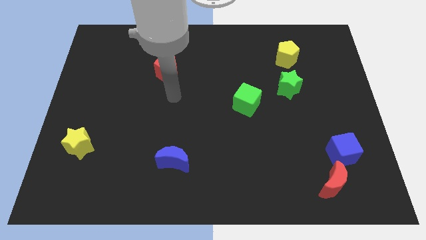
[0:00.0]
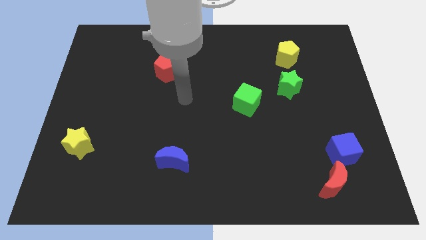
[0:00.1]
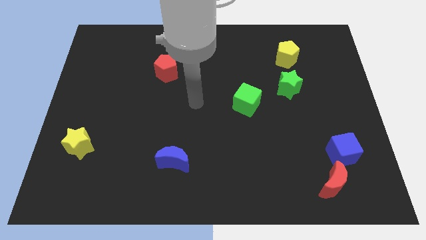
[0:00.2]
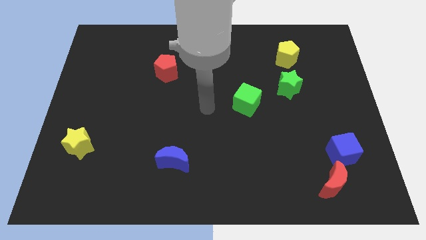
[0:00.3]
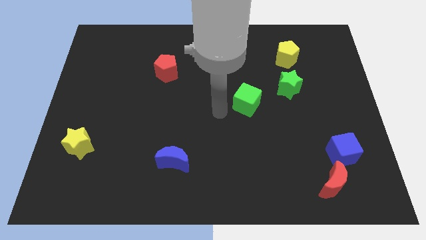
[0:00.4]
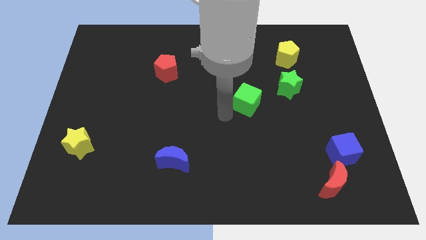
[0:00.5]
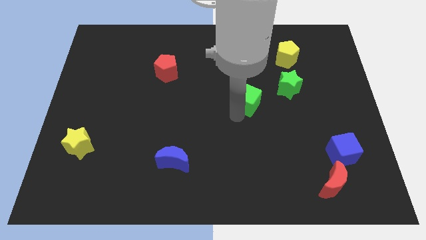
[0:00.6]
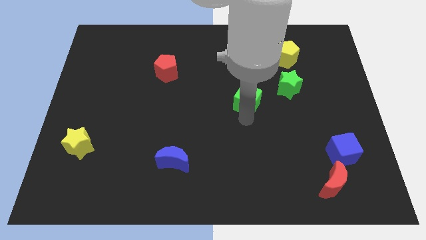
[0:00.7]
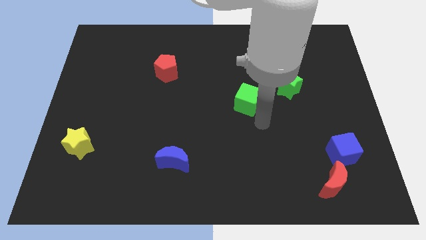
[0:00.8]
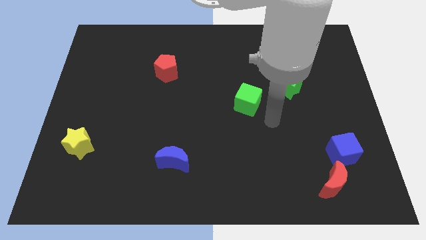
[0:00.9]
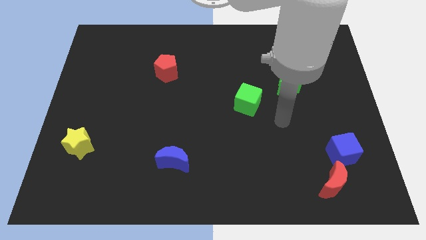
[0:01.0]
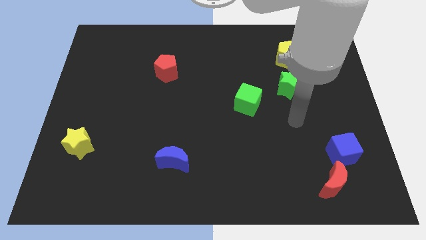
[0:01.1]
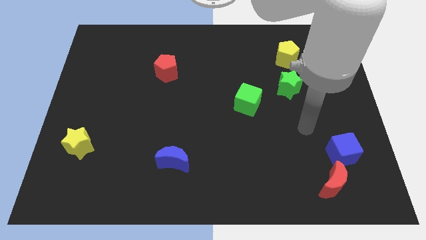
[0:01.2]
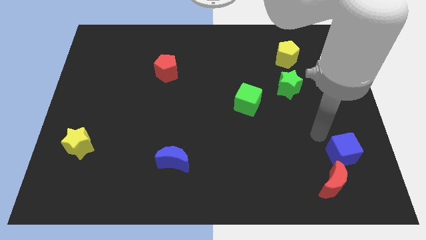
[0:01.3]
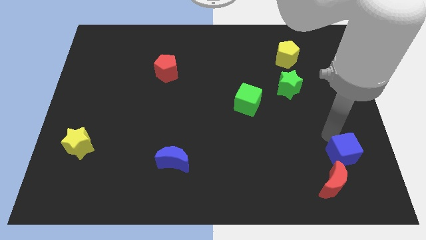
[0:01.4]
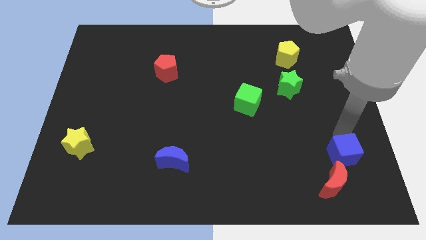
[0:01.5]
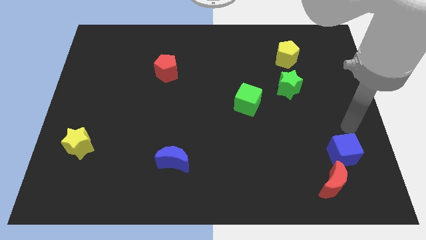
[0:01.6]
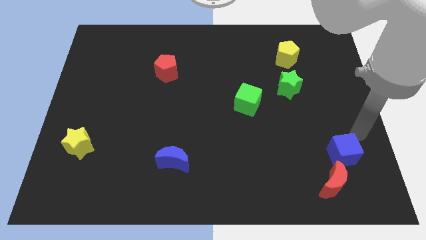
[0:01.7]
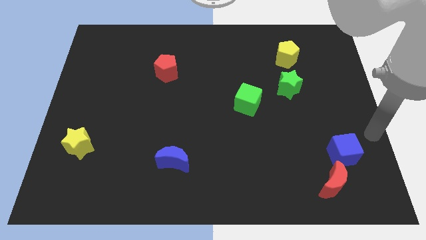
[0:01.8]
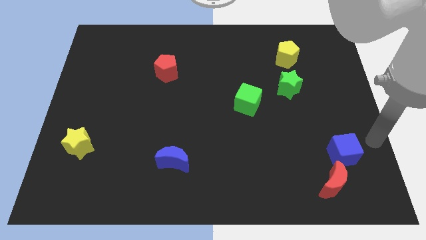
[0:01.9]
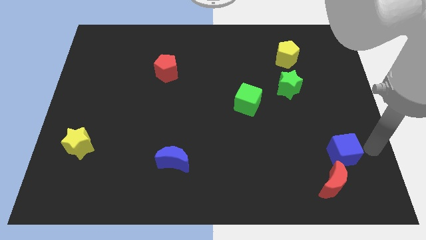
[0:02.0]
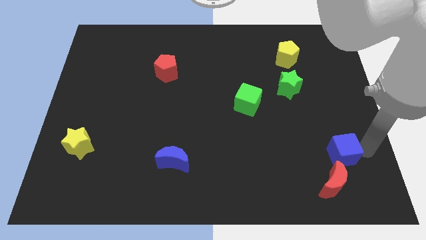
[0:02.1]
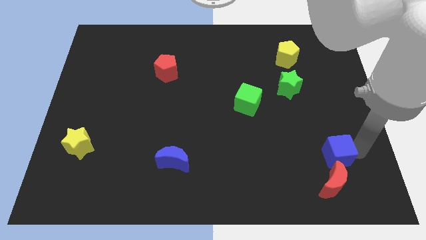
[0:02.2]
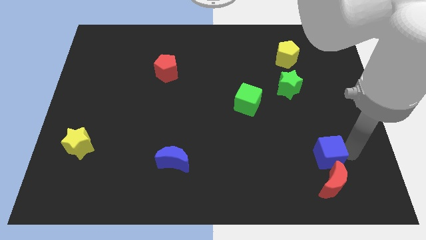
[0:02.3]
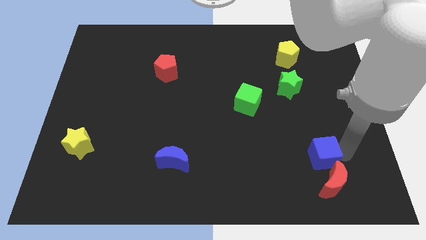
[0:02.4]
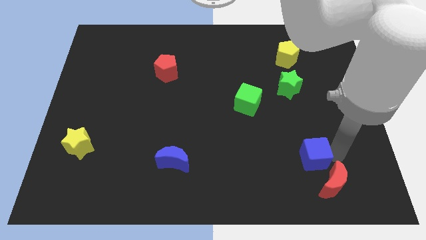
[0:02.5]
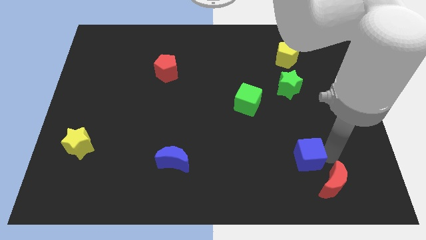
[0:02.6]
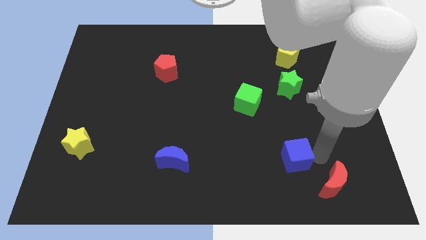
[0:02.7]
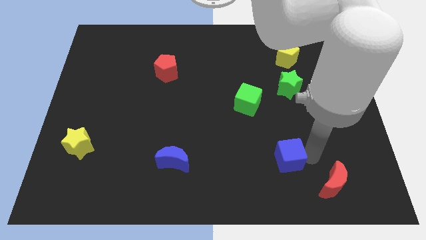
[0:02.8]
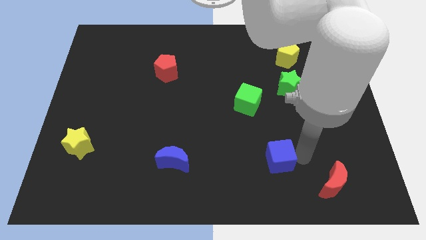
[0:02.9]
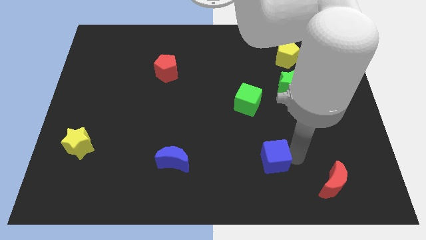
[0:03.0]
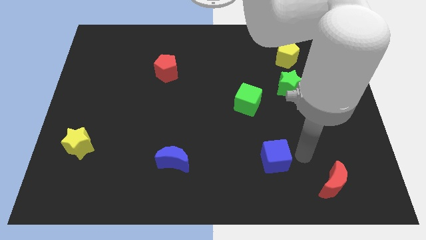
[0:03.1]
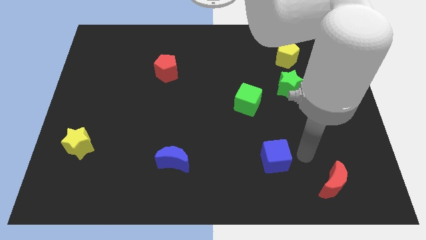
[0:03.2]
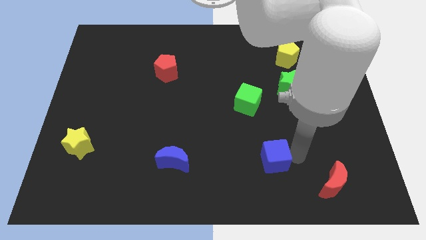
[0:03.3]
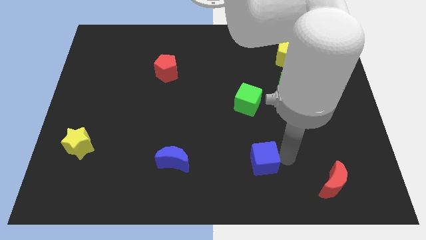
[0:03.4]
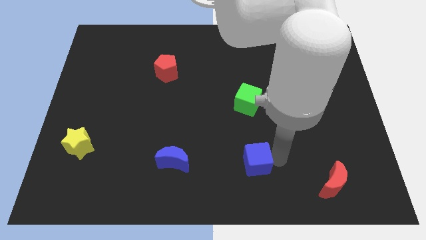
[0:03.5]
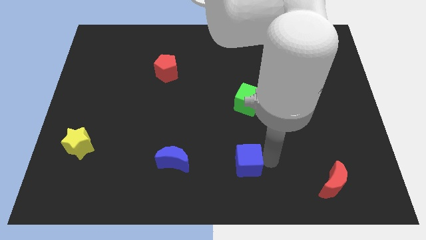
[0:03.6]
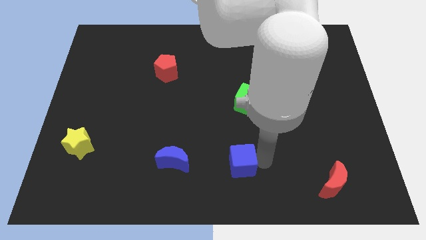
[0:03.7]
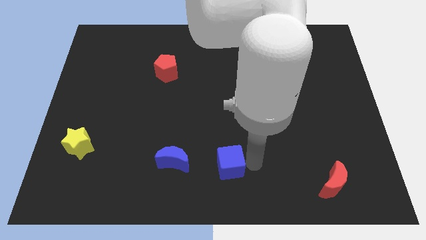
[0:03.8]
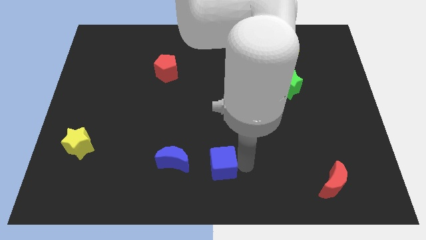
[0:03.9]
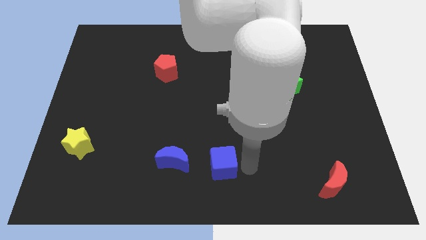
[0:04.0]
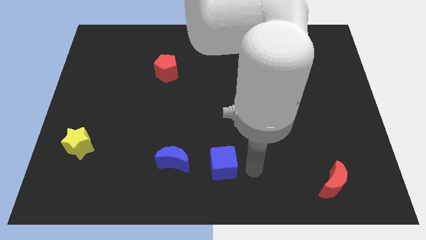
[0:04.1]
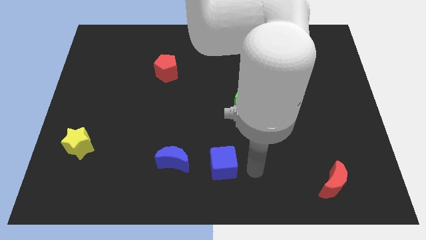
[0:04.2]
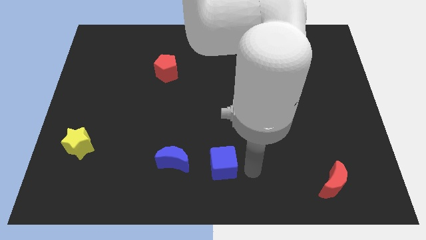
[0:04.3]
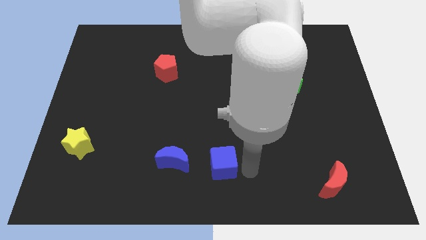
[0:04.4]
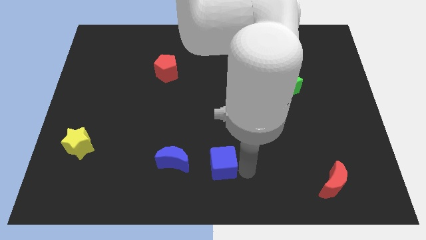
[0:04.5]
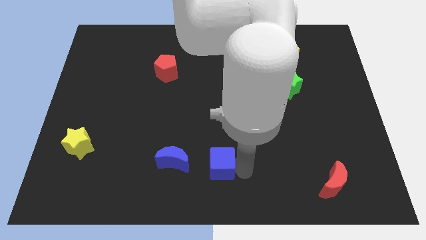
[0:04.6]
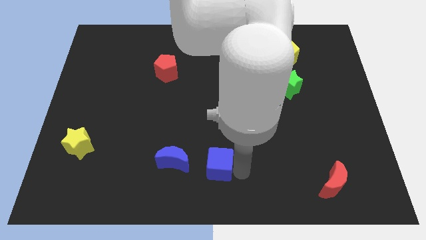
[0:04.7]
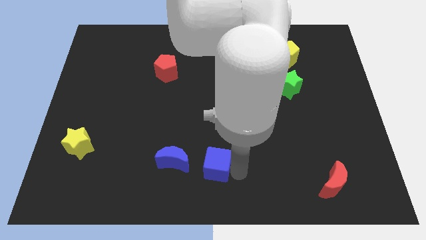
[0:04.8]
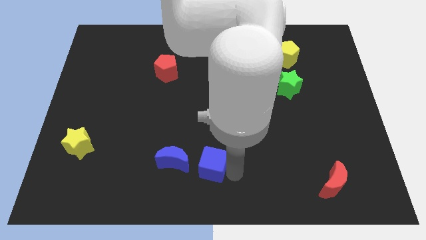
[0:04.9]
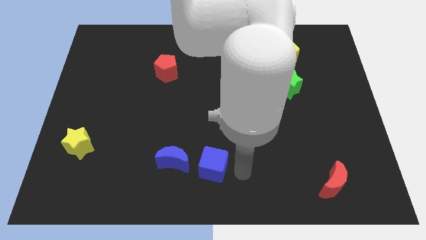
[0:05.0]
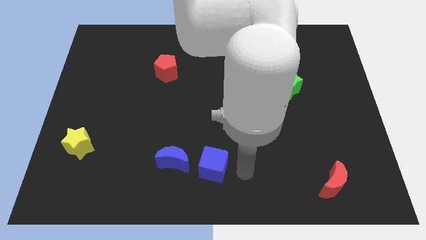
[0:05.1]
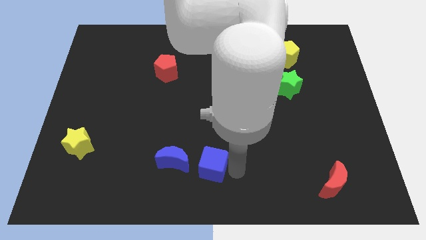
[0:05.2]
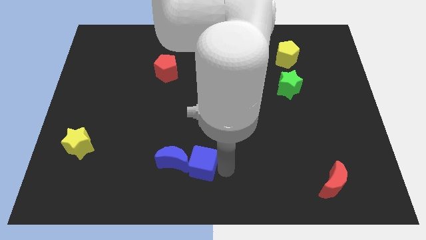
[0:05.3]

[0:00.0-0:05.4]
put the blue cube to the blue moon
